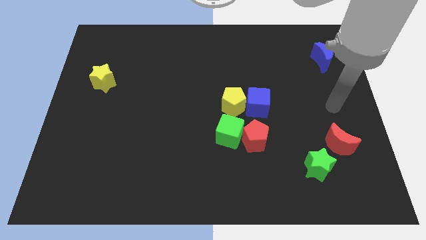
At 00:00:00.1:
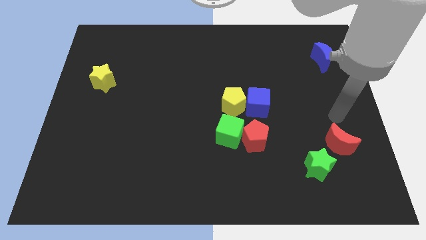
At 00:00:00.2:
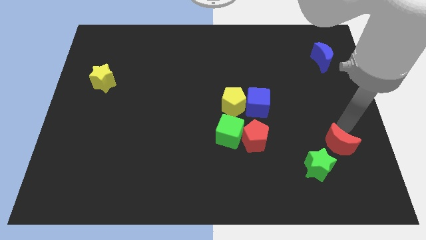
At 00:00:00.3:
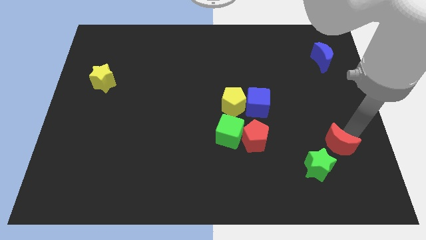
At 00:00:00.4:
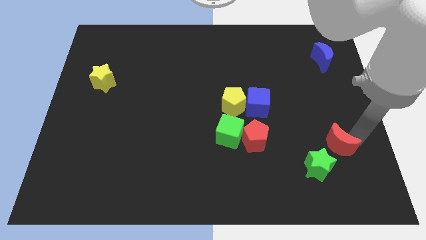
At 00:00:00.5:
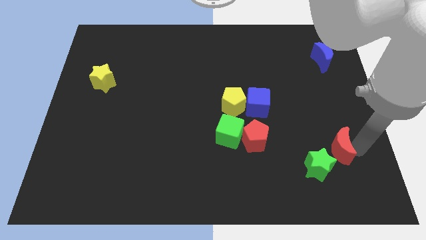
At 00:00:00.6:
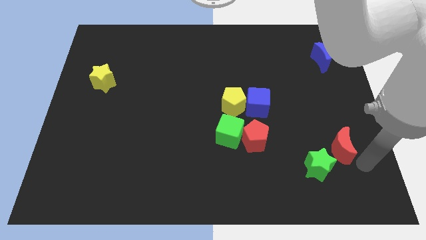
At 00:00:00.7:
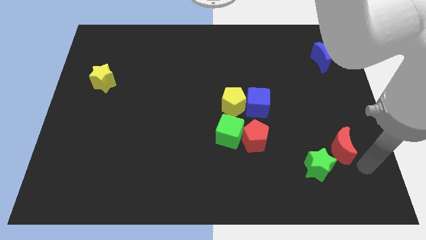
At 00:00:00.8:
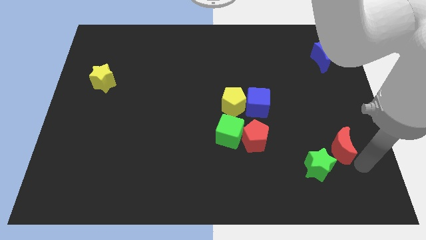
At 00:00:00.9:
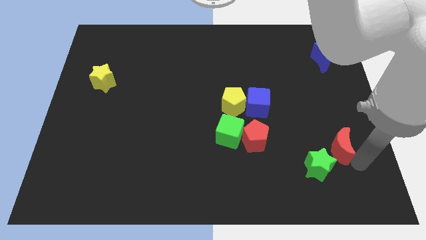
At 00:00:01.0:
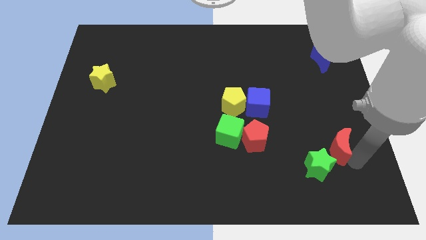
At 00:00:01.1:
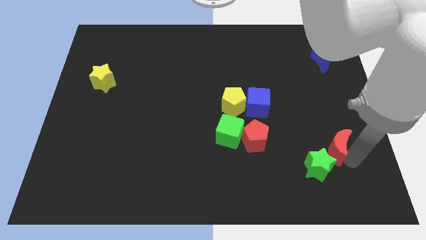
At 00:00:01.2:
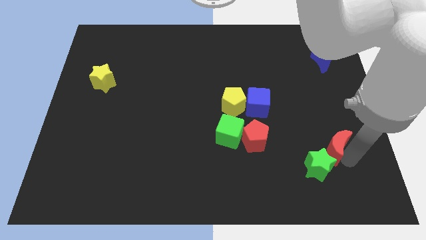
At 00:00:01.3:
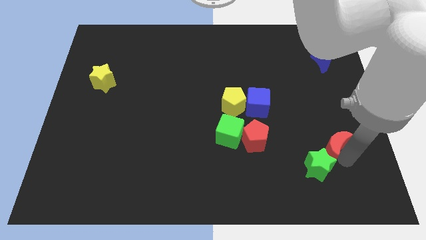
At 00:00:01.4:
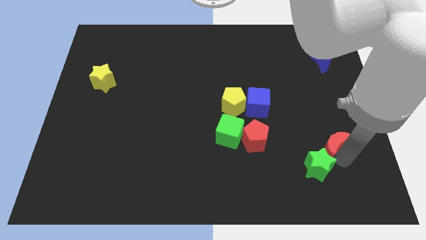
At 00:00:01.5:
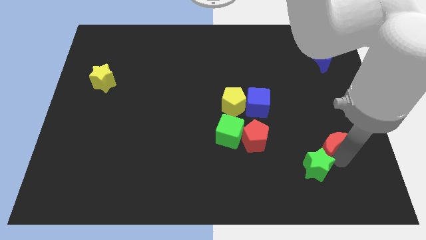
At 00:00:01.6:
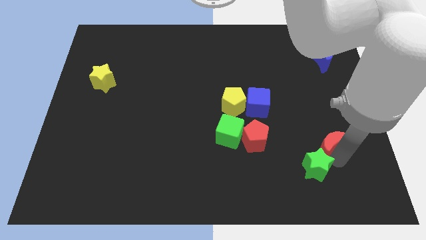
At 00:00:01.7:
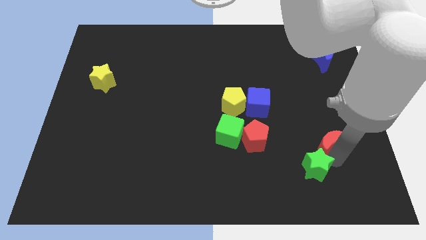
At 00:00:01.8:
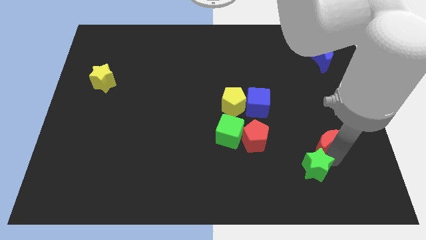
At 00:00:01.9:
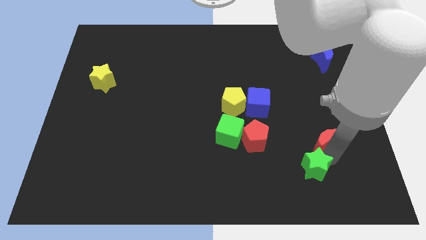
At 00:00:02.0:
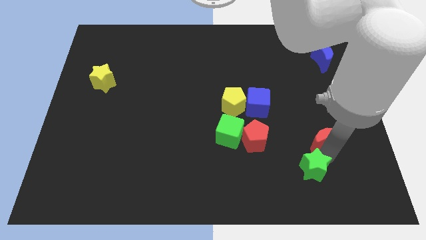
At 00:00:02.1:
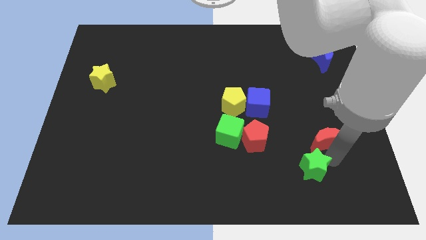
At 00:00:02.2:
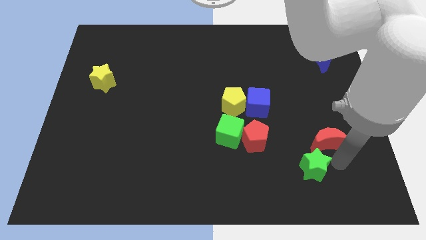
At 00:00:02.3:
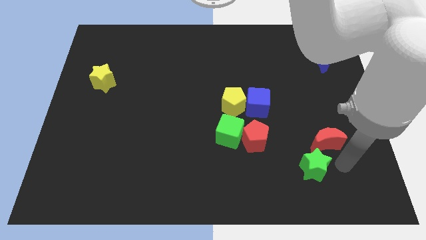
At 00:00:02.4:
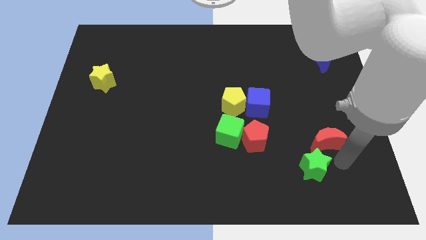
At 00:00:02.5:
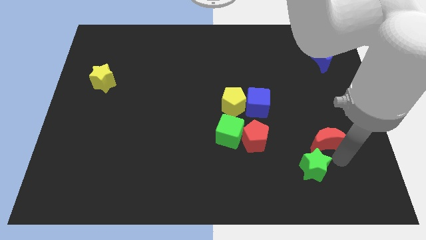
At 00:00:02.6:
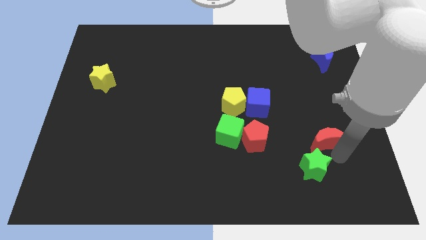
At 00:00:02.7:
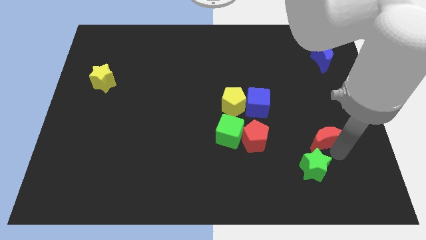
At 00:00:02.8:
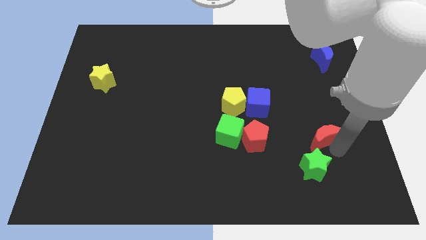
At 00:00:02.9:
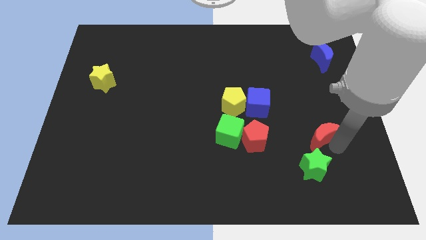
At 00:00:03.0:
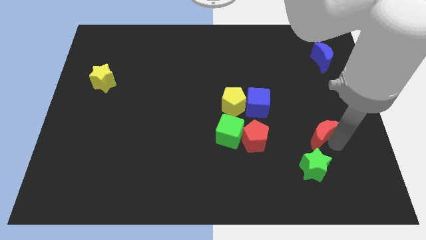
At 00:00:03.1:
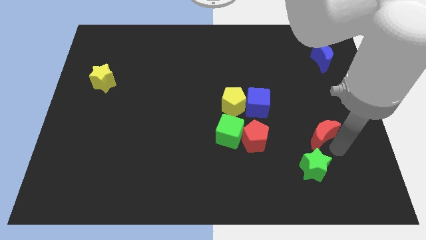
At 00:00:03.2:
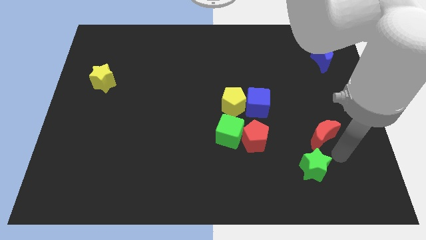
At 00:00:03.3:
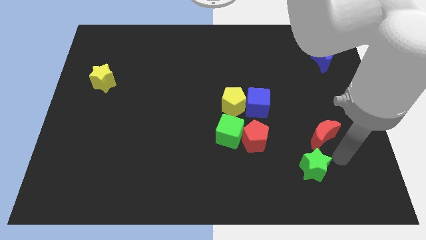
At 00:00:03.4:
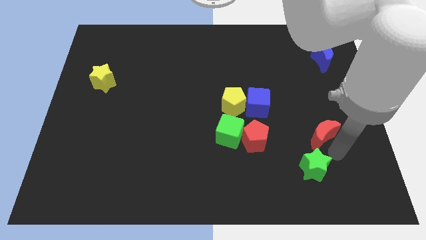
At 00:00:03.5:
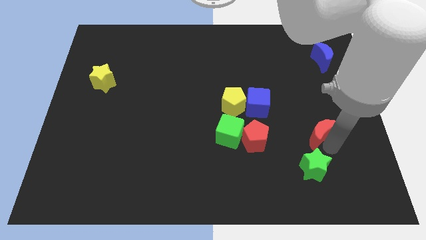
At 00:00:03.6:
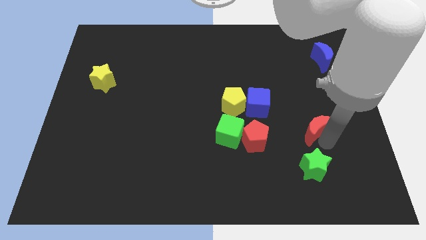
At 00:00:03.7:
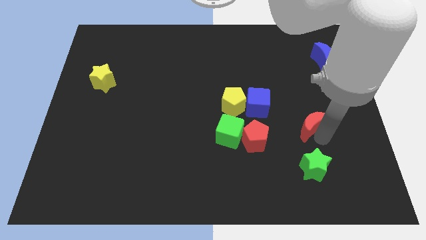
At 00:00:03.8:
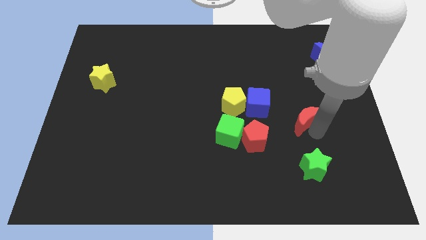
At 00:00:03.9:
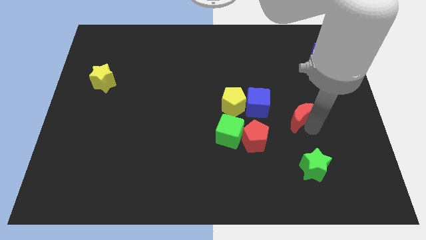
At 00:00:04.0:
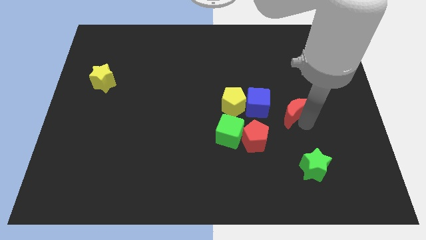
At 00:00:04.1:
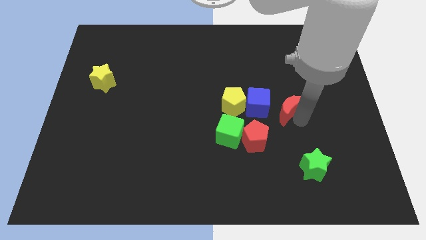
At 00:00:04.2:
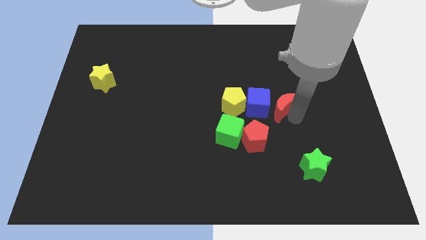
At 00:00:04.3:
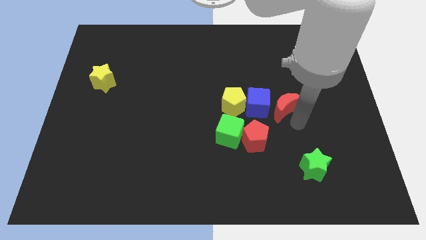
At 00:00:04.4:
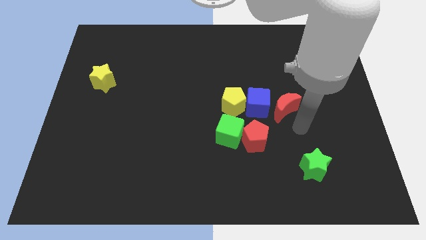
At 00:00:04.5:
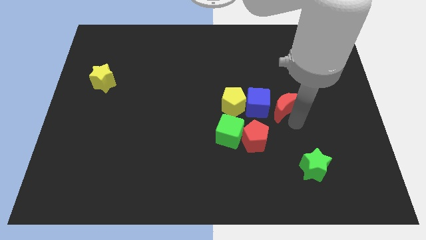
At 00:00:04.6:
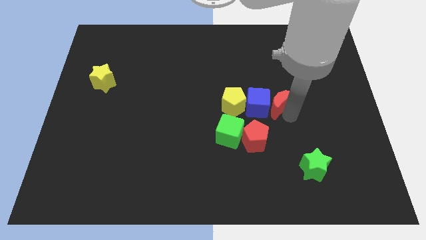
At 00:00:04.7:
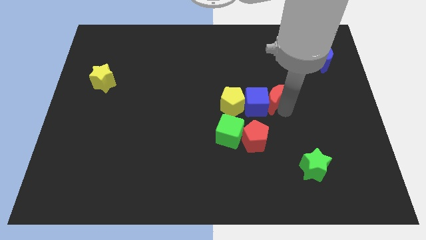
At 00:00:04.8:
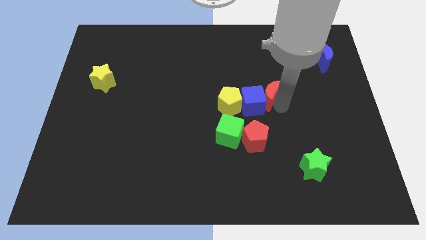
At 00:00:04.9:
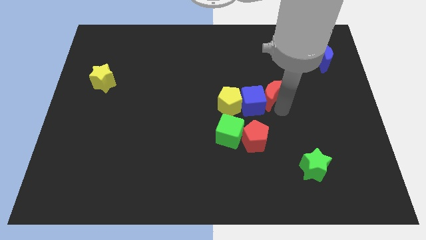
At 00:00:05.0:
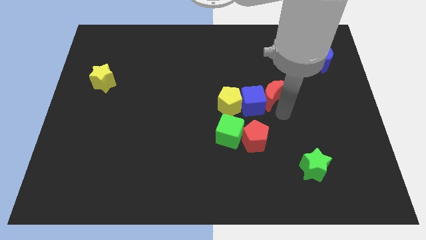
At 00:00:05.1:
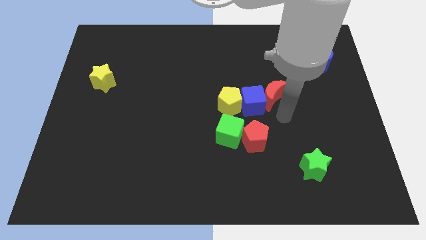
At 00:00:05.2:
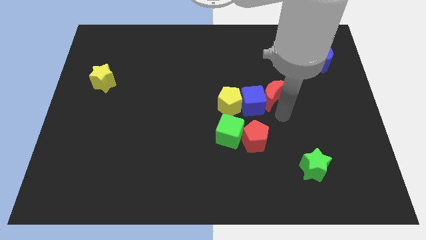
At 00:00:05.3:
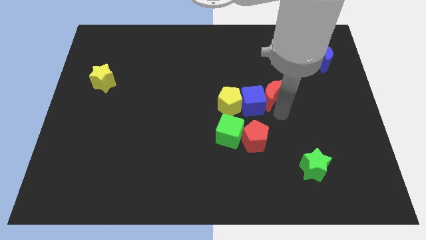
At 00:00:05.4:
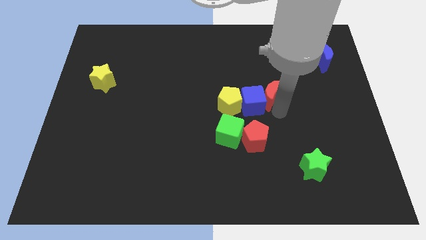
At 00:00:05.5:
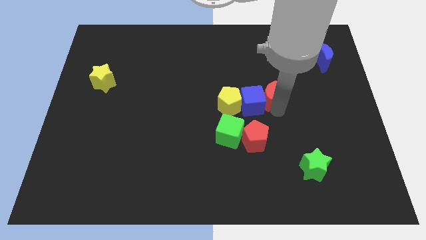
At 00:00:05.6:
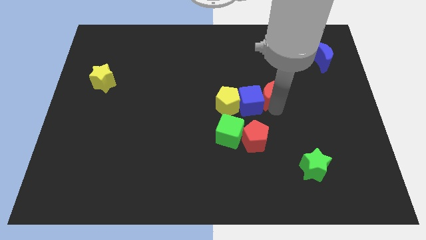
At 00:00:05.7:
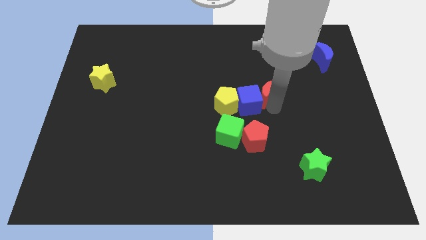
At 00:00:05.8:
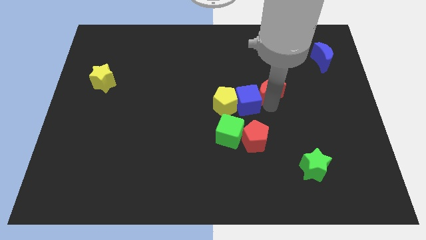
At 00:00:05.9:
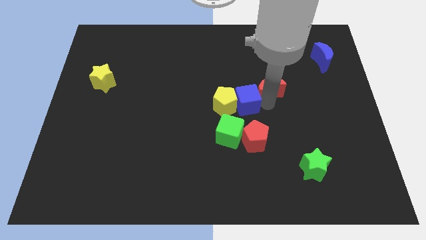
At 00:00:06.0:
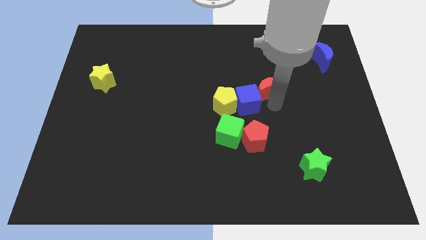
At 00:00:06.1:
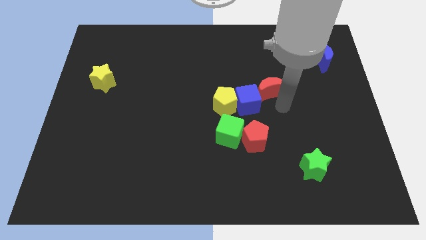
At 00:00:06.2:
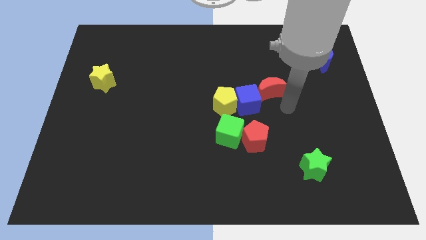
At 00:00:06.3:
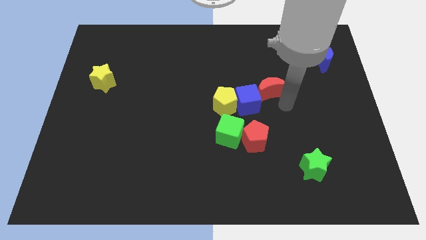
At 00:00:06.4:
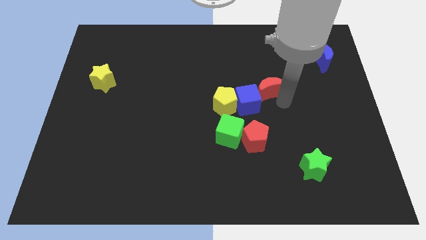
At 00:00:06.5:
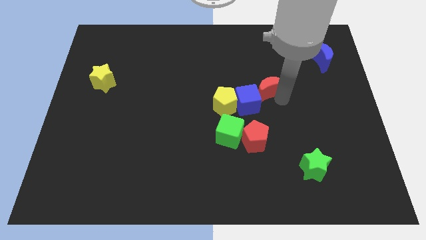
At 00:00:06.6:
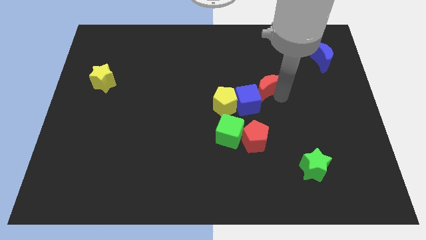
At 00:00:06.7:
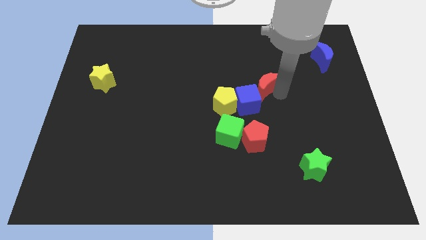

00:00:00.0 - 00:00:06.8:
put the red moon to the top of the blue cube
